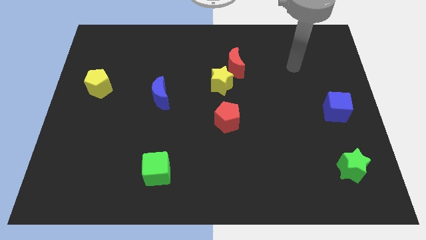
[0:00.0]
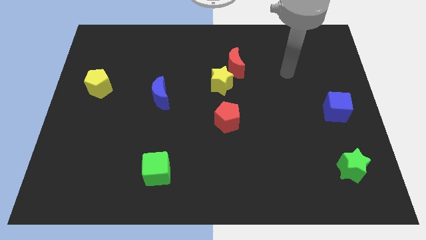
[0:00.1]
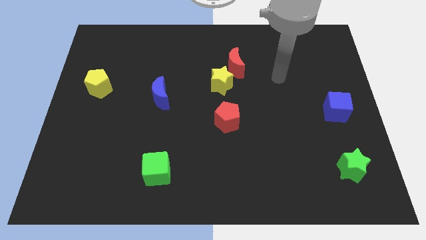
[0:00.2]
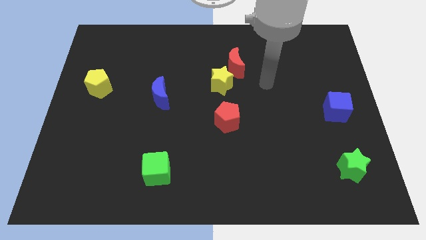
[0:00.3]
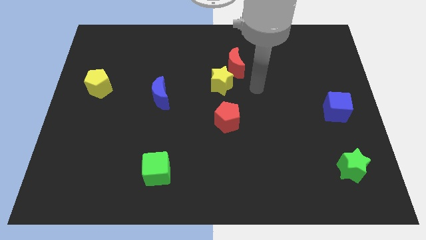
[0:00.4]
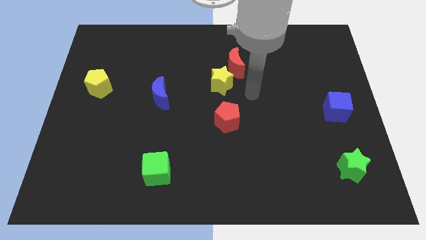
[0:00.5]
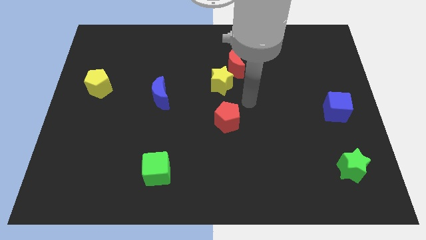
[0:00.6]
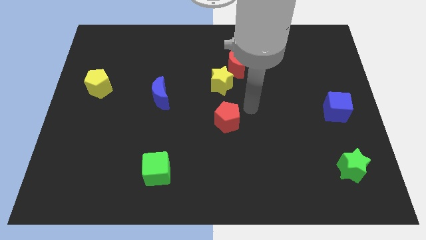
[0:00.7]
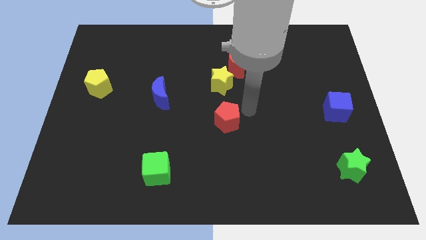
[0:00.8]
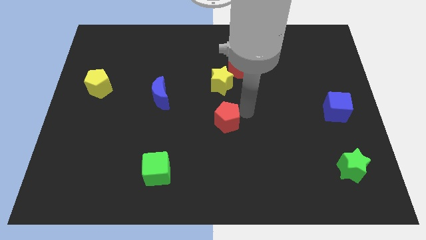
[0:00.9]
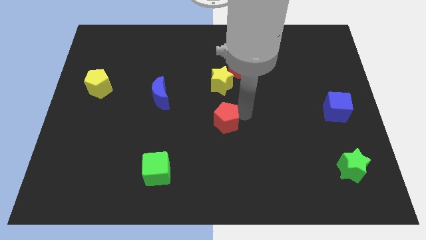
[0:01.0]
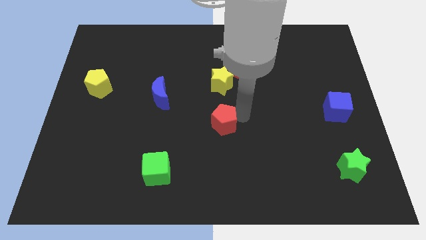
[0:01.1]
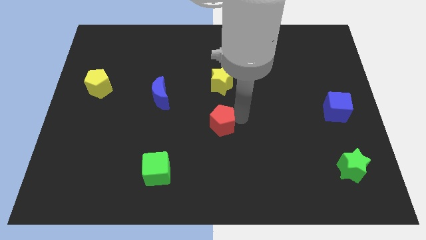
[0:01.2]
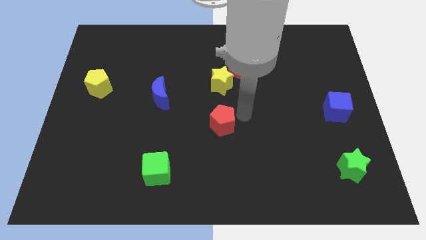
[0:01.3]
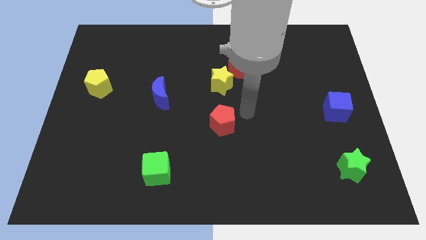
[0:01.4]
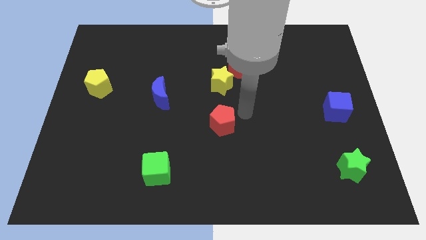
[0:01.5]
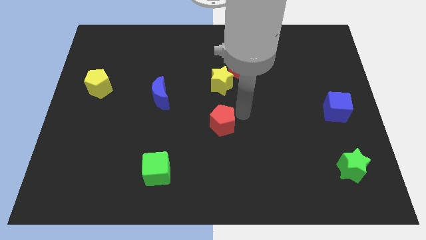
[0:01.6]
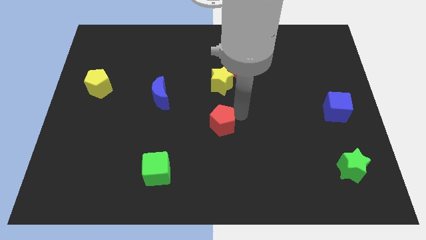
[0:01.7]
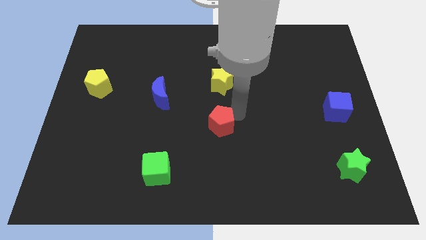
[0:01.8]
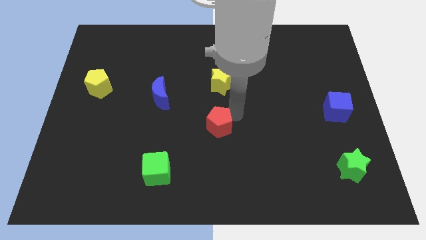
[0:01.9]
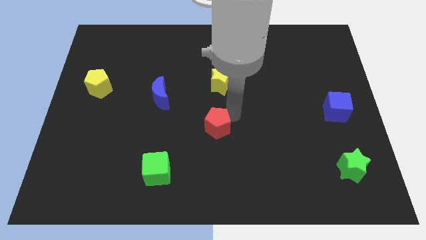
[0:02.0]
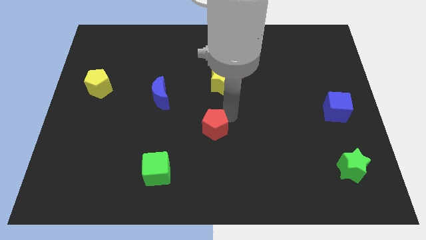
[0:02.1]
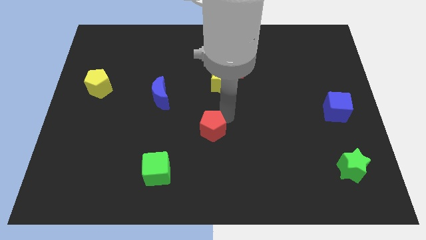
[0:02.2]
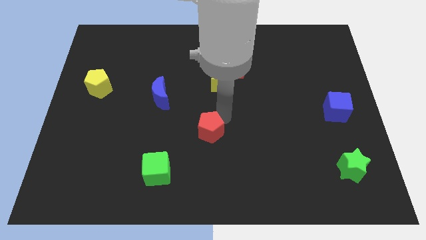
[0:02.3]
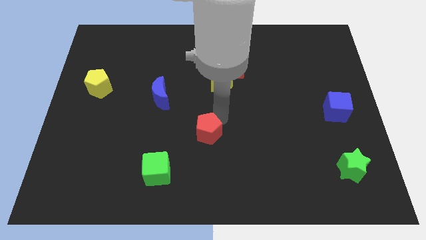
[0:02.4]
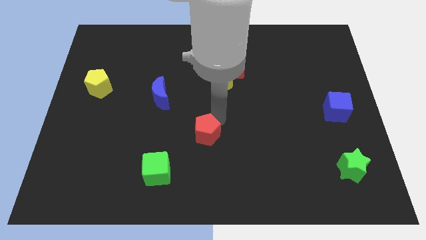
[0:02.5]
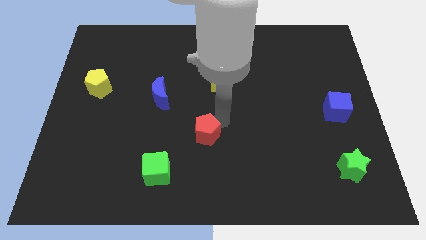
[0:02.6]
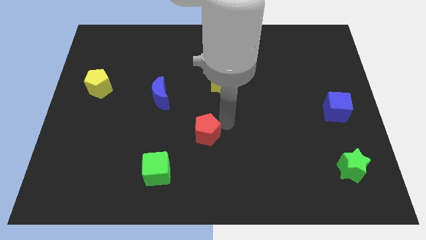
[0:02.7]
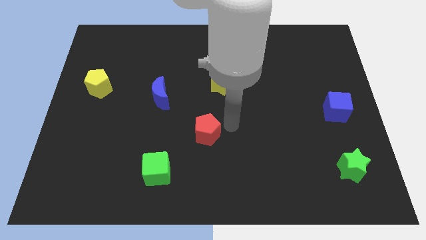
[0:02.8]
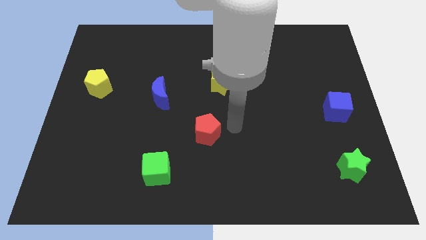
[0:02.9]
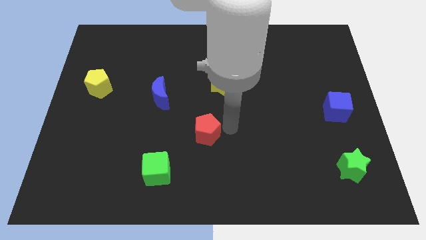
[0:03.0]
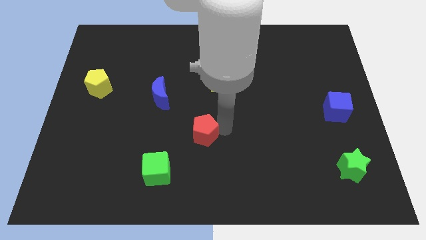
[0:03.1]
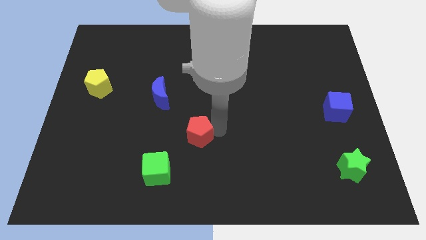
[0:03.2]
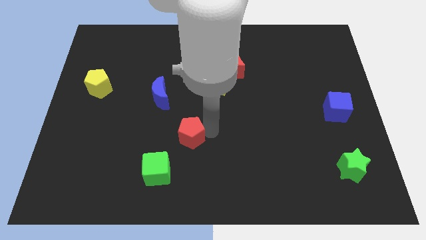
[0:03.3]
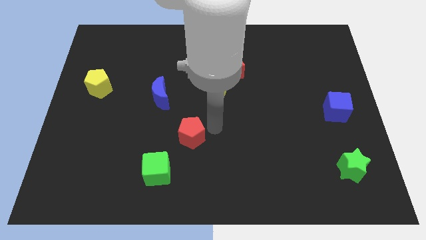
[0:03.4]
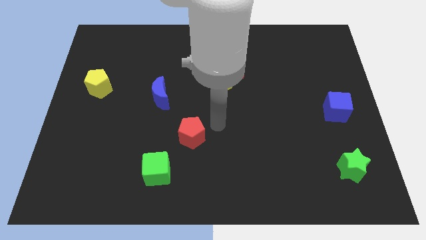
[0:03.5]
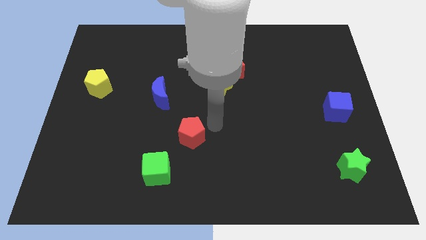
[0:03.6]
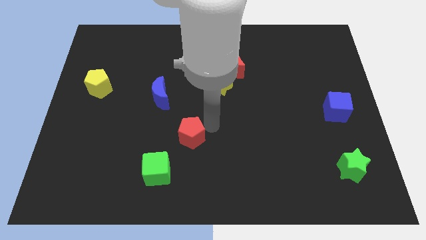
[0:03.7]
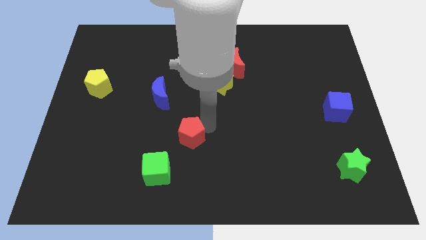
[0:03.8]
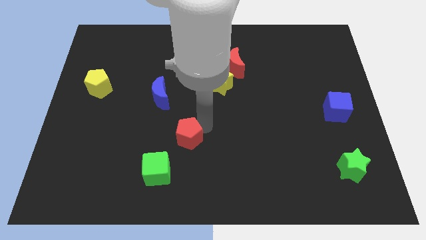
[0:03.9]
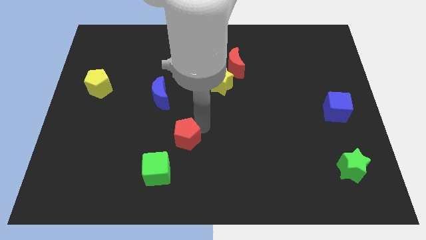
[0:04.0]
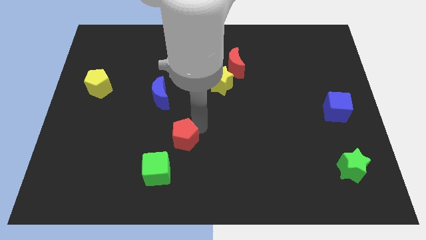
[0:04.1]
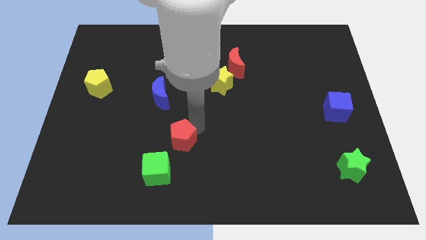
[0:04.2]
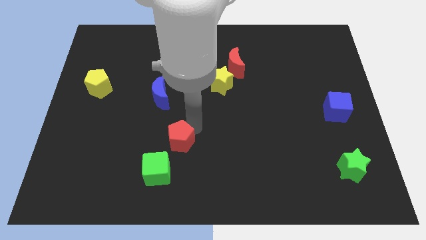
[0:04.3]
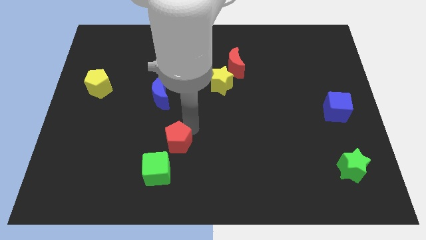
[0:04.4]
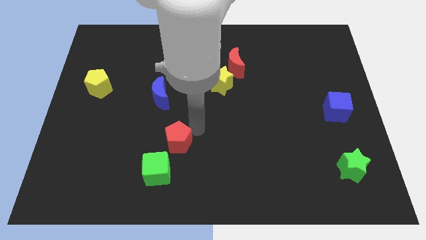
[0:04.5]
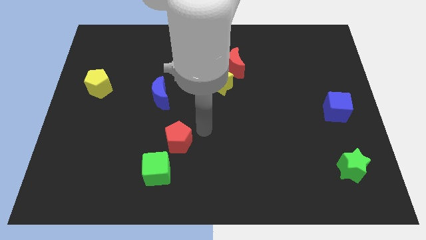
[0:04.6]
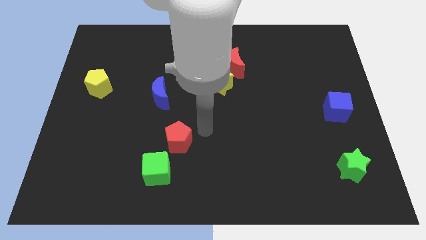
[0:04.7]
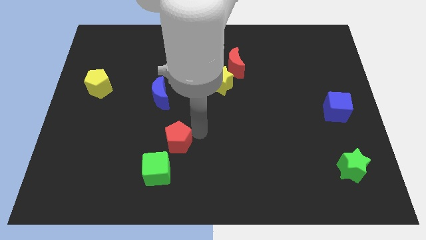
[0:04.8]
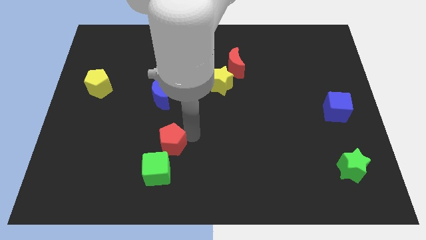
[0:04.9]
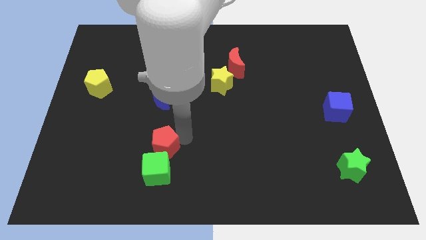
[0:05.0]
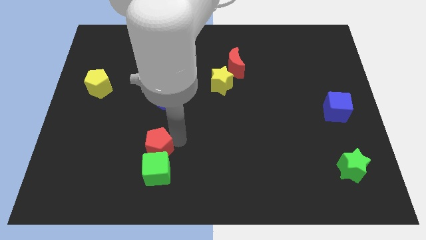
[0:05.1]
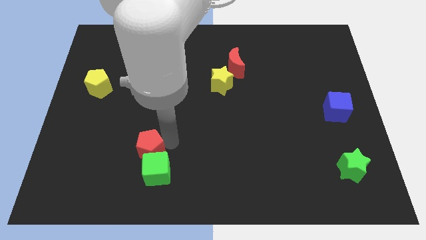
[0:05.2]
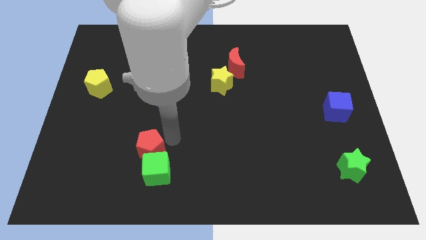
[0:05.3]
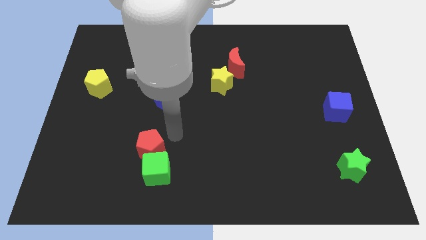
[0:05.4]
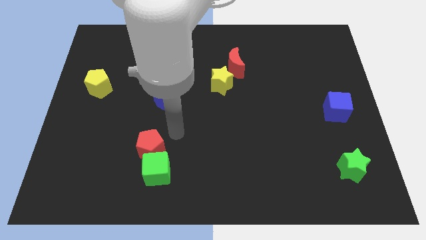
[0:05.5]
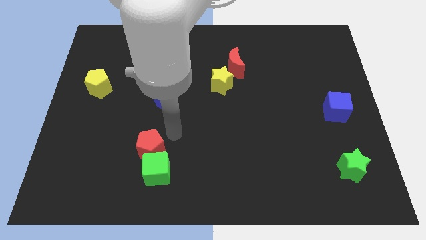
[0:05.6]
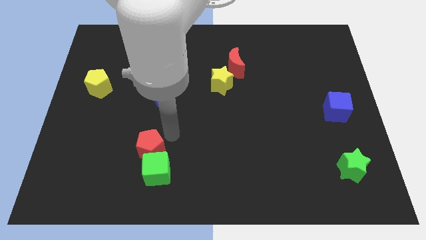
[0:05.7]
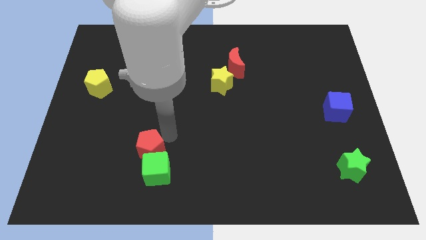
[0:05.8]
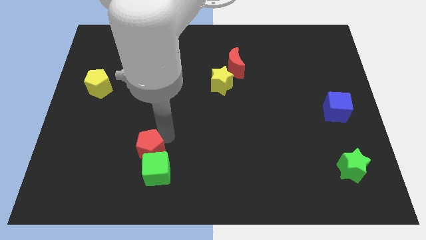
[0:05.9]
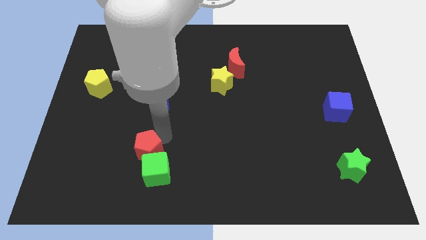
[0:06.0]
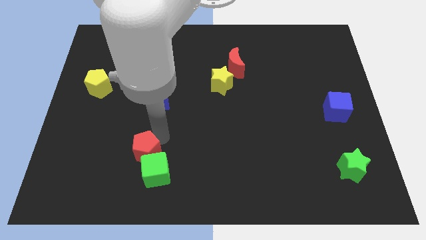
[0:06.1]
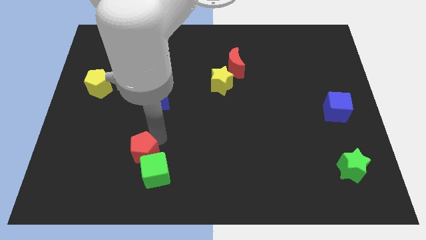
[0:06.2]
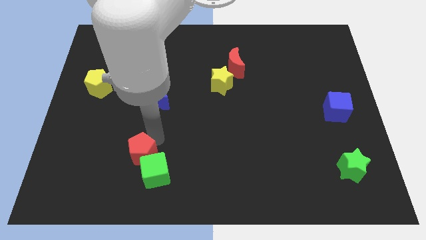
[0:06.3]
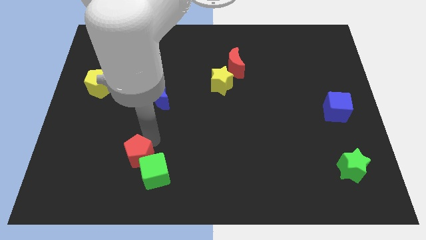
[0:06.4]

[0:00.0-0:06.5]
push the red pentagon to the left side of the green cube

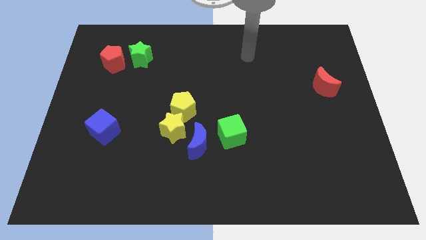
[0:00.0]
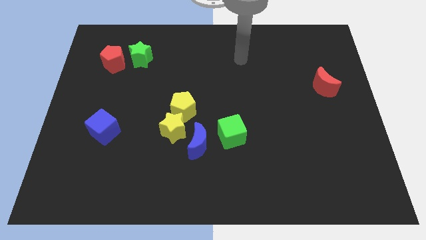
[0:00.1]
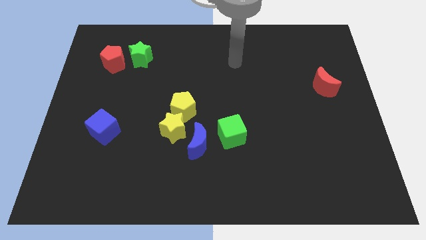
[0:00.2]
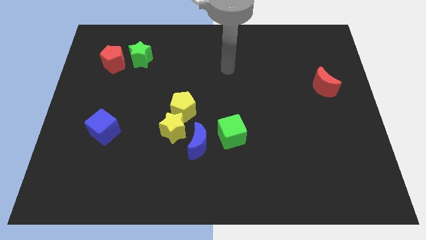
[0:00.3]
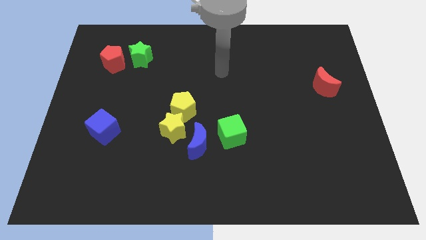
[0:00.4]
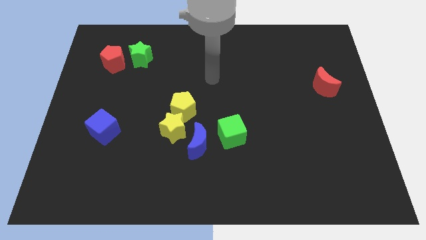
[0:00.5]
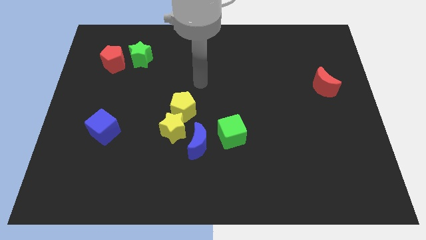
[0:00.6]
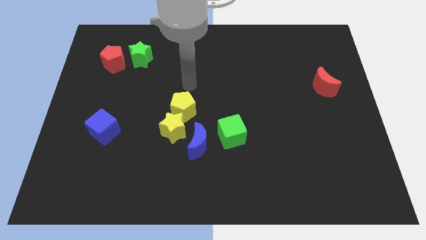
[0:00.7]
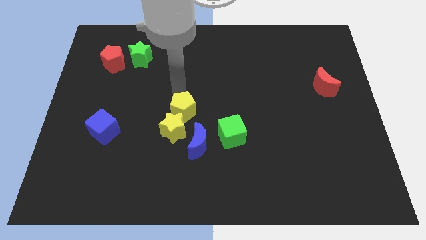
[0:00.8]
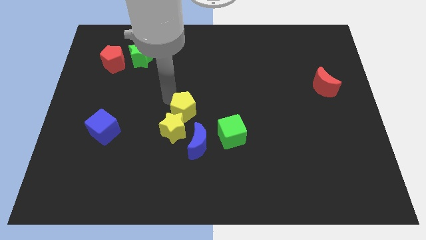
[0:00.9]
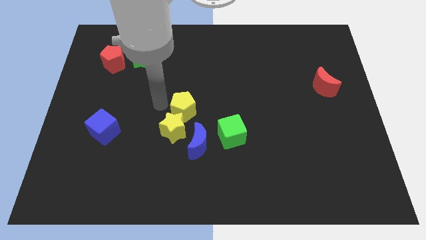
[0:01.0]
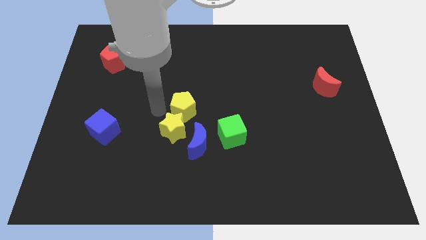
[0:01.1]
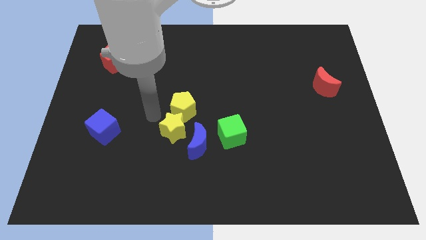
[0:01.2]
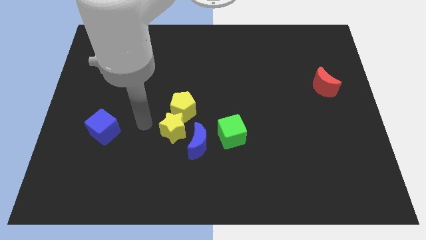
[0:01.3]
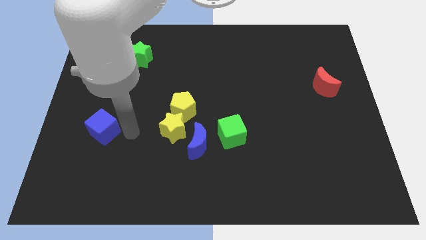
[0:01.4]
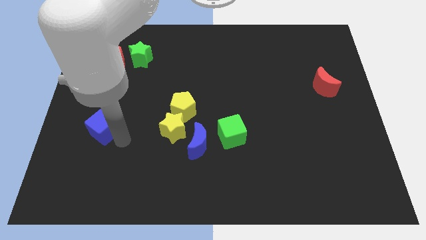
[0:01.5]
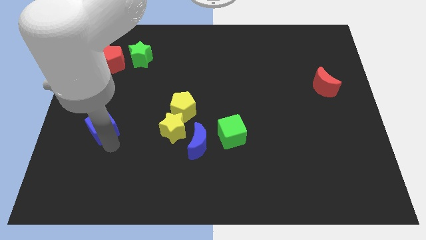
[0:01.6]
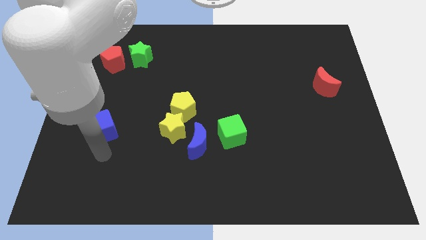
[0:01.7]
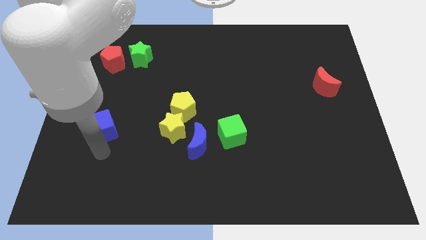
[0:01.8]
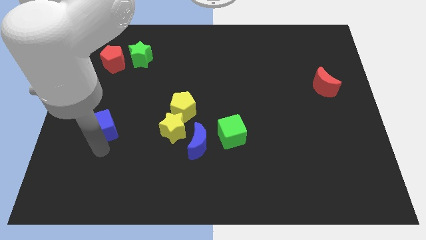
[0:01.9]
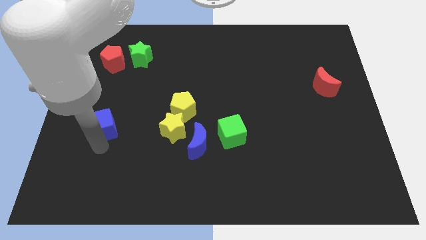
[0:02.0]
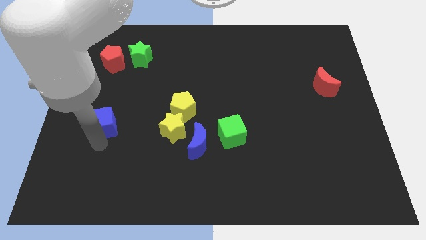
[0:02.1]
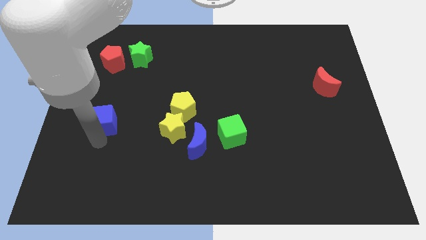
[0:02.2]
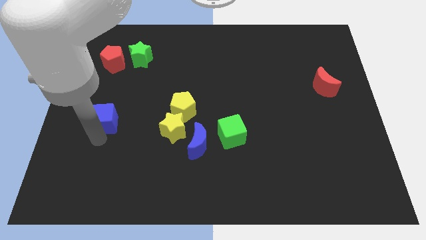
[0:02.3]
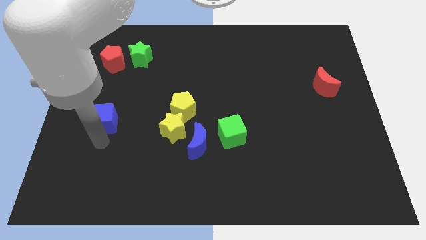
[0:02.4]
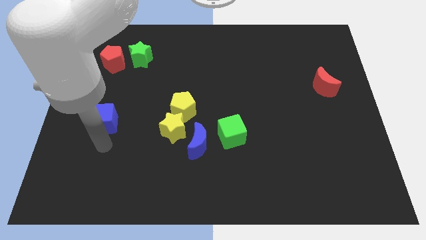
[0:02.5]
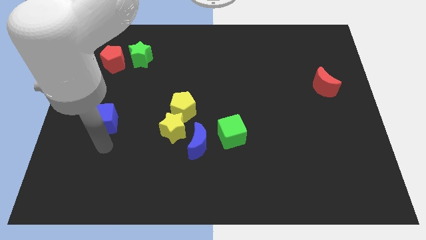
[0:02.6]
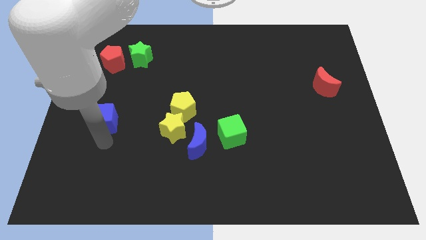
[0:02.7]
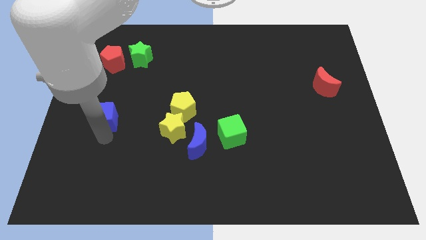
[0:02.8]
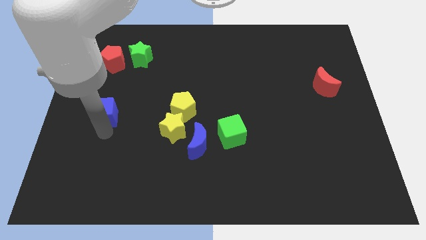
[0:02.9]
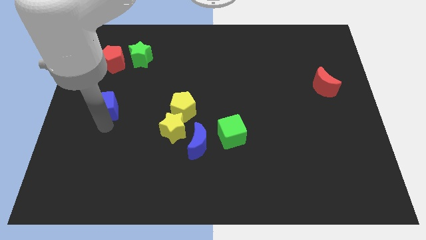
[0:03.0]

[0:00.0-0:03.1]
slide the blue cube to the bottom of the red pentagon
